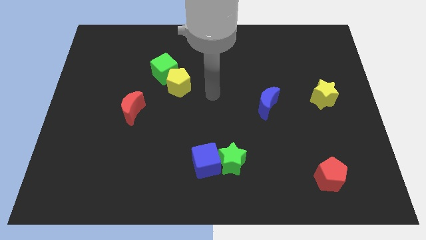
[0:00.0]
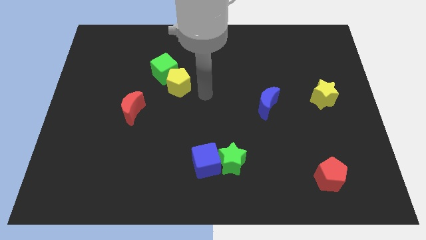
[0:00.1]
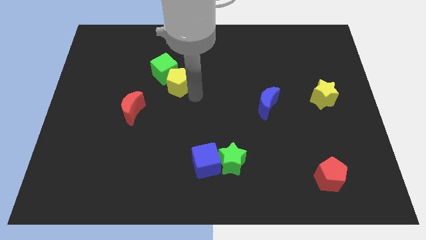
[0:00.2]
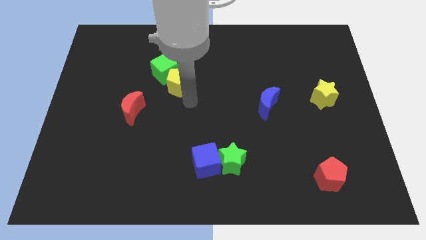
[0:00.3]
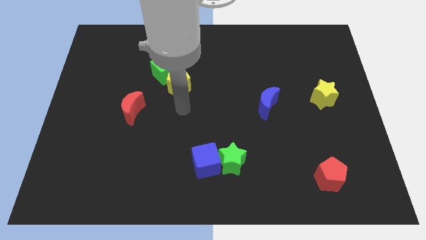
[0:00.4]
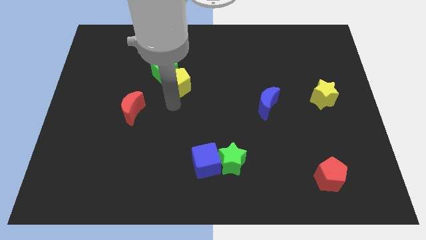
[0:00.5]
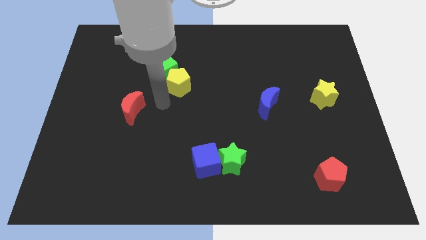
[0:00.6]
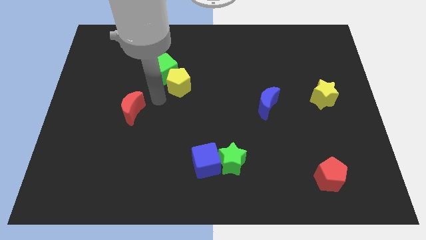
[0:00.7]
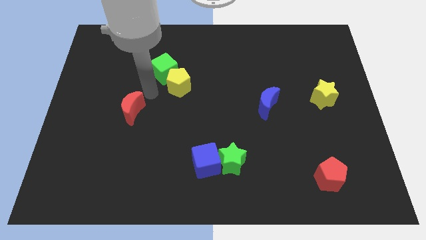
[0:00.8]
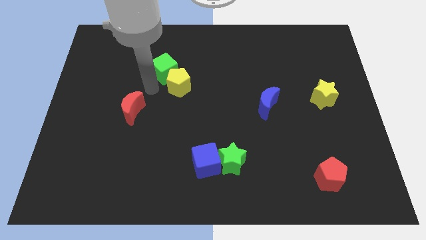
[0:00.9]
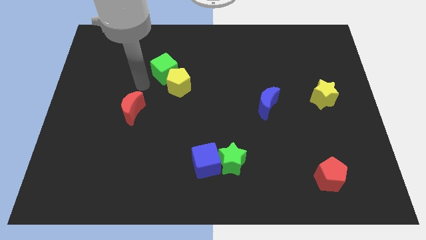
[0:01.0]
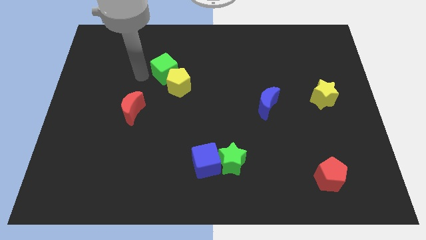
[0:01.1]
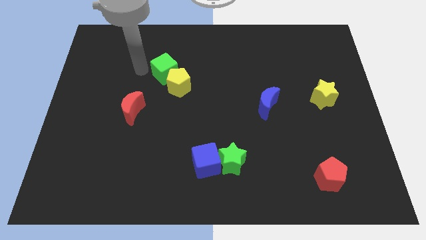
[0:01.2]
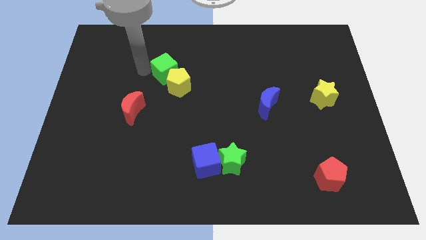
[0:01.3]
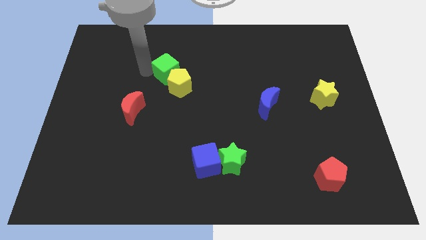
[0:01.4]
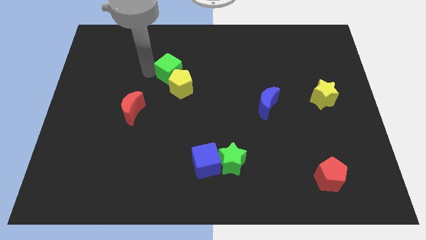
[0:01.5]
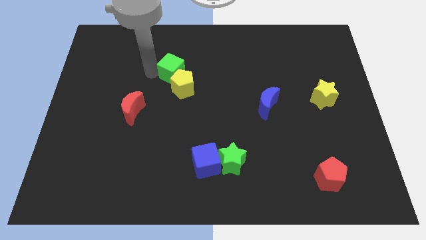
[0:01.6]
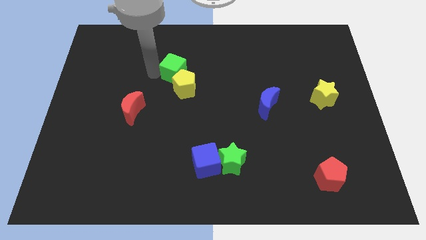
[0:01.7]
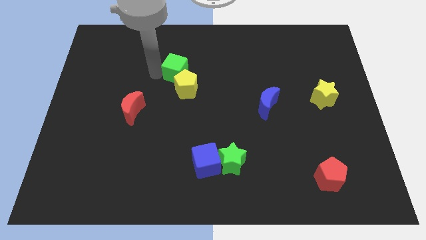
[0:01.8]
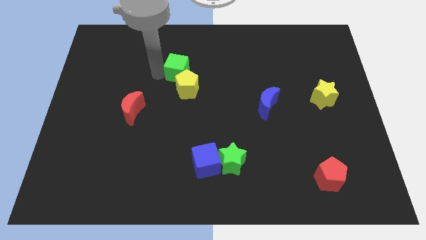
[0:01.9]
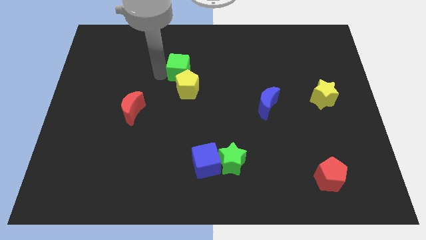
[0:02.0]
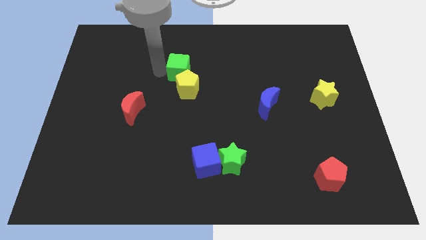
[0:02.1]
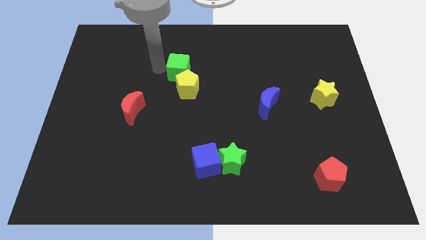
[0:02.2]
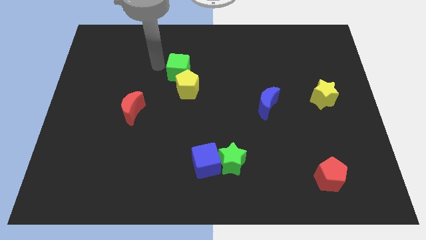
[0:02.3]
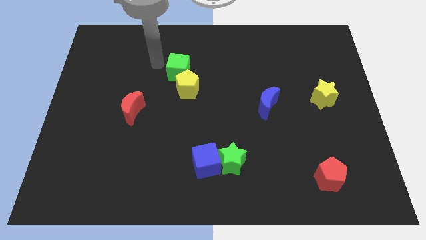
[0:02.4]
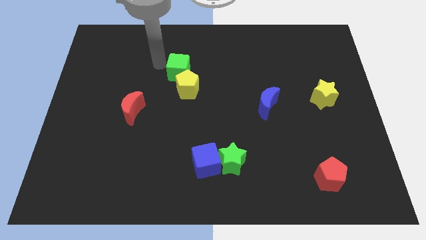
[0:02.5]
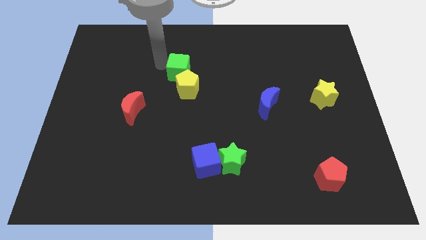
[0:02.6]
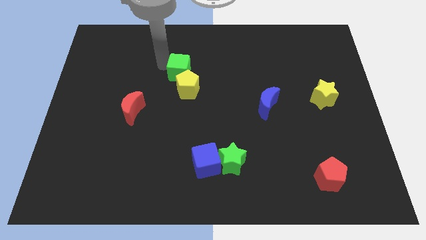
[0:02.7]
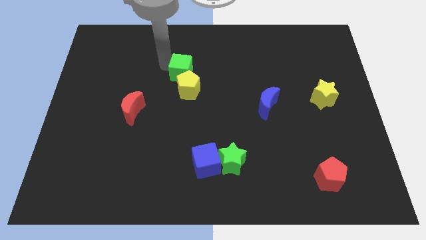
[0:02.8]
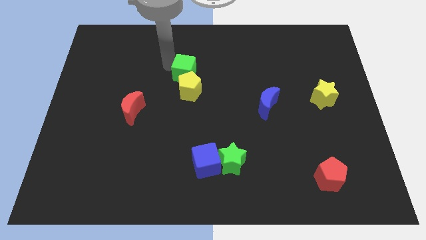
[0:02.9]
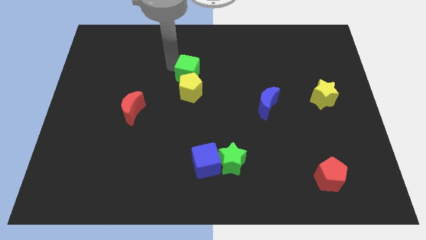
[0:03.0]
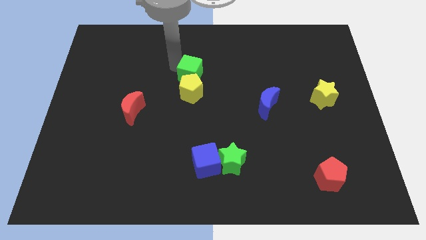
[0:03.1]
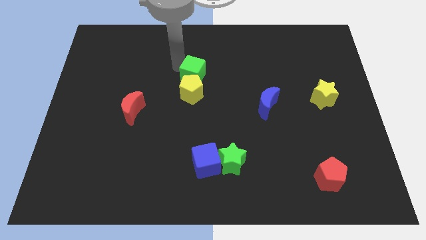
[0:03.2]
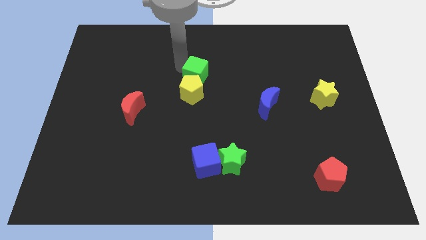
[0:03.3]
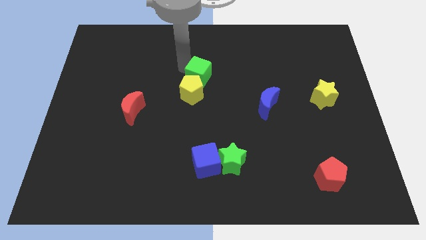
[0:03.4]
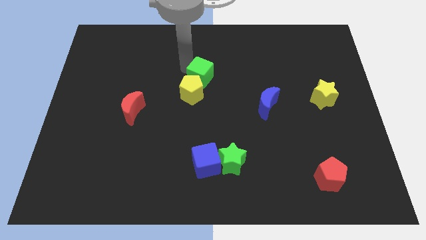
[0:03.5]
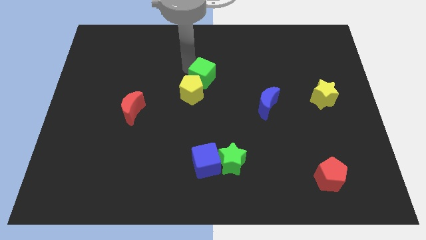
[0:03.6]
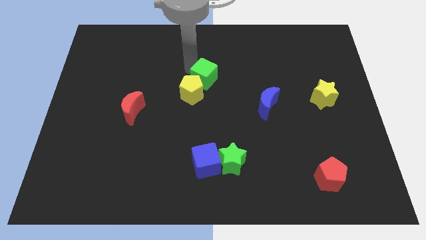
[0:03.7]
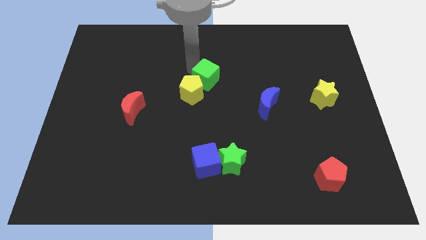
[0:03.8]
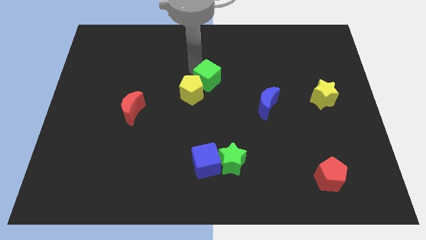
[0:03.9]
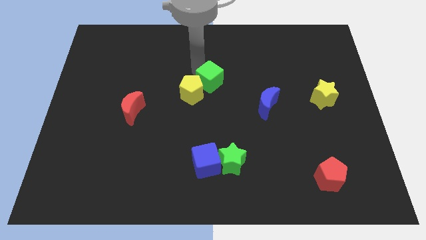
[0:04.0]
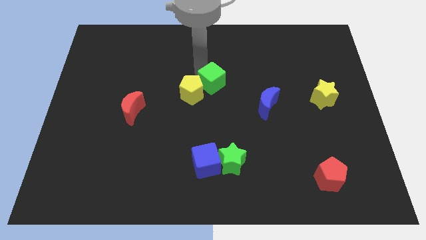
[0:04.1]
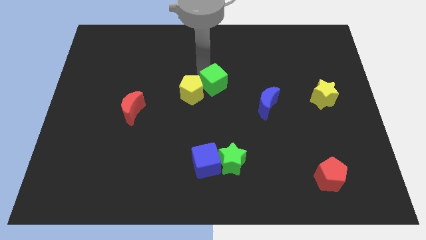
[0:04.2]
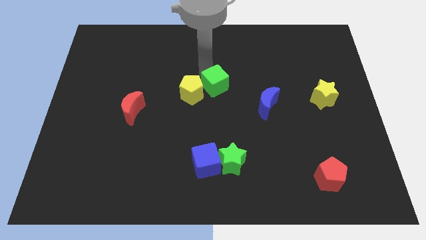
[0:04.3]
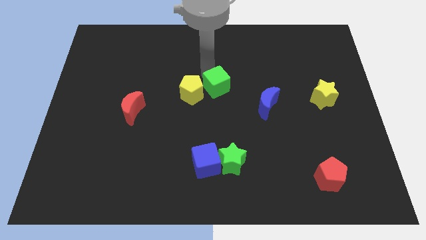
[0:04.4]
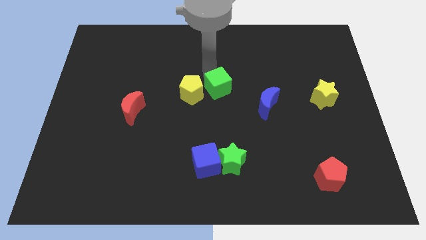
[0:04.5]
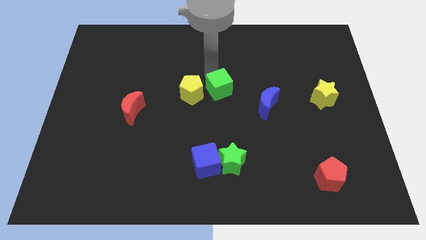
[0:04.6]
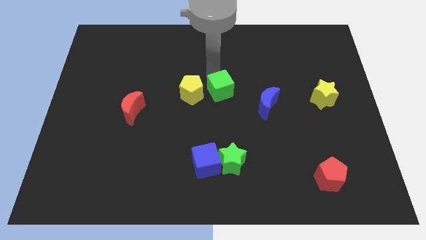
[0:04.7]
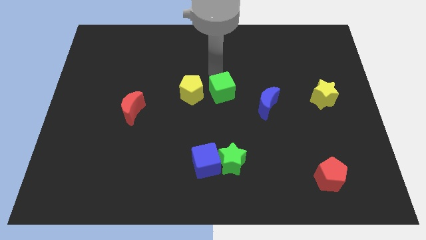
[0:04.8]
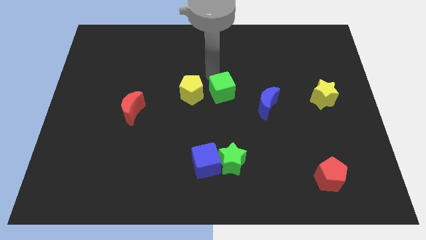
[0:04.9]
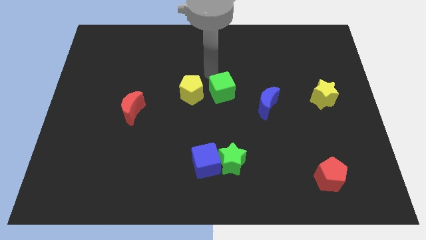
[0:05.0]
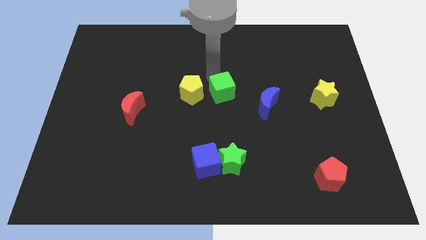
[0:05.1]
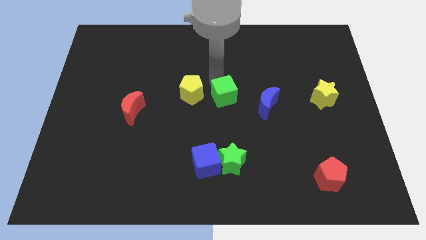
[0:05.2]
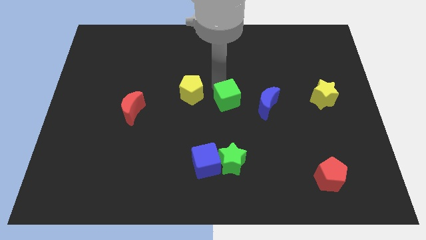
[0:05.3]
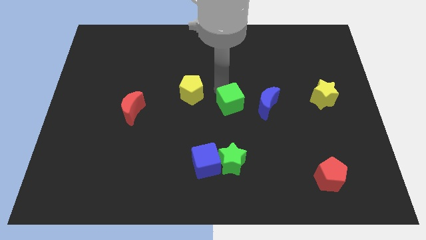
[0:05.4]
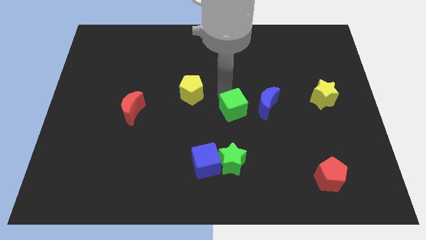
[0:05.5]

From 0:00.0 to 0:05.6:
push the green cube diagonally down and to the left of the blue moon

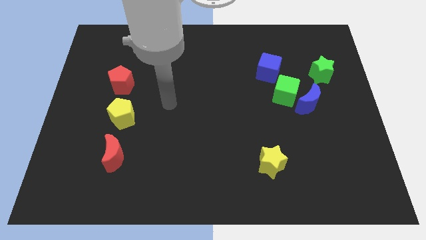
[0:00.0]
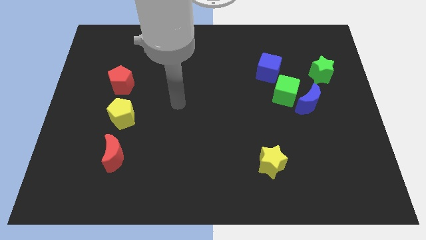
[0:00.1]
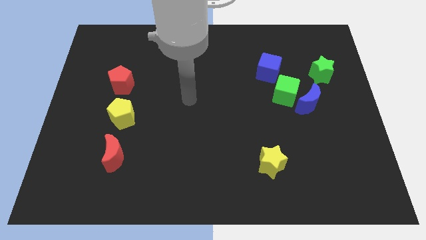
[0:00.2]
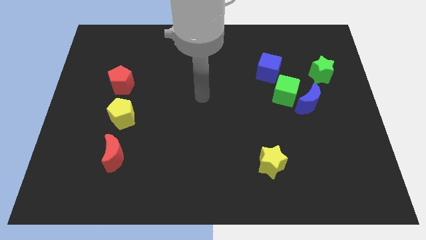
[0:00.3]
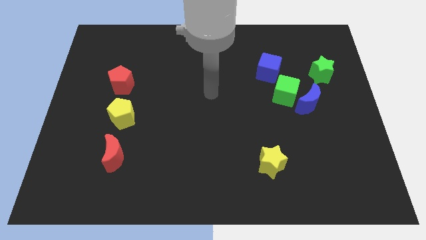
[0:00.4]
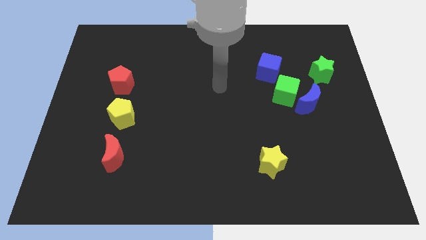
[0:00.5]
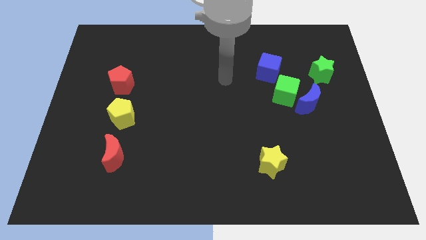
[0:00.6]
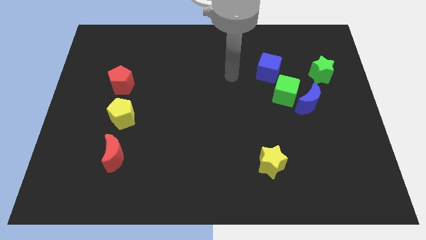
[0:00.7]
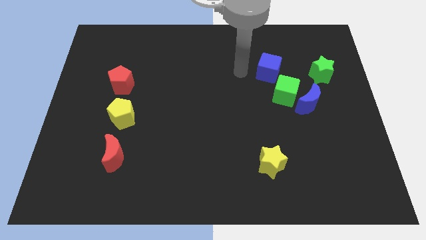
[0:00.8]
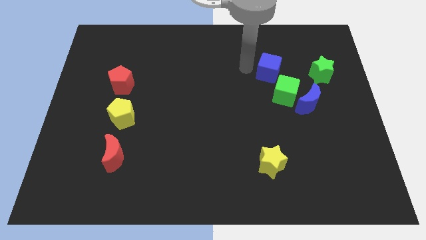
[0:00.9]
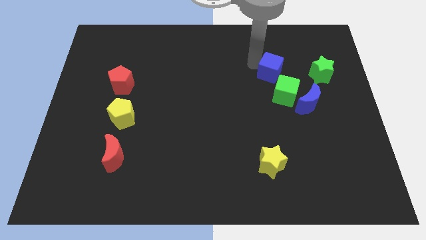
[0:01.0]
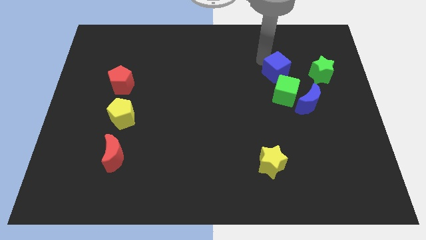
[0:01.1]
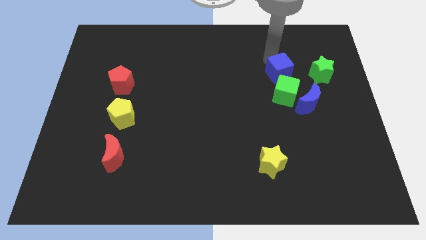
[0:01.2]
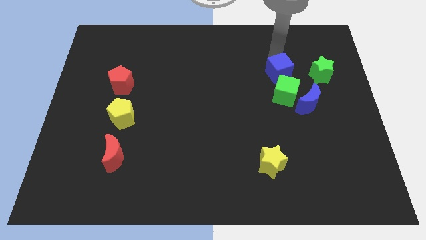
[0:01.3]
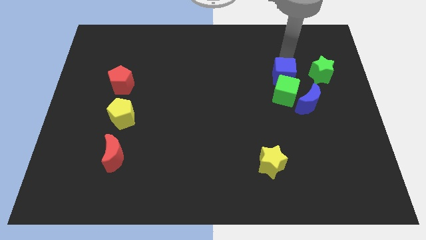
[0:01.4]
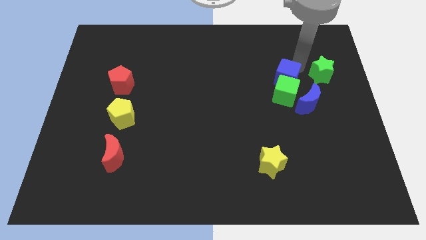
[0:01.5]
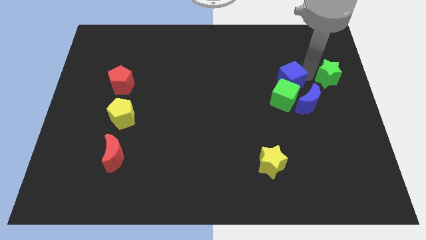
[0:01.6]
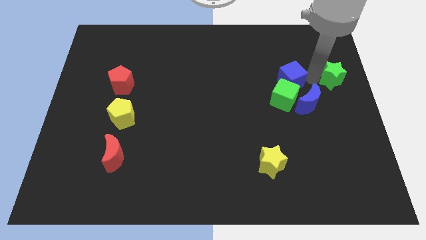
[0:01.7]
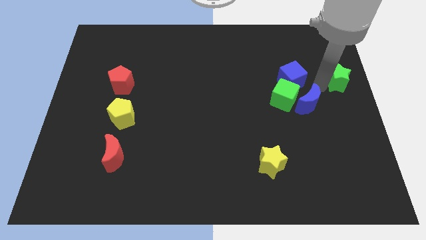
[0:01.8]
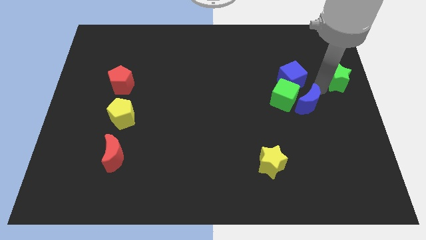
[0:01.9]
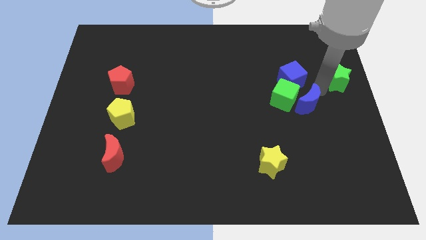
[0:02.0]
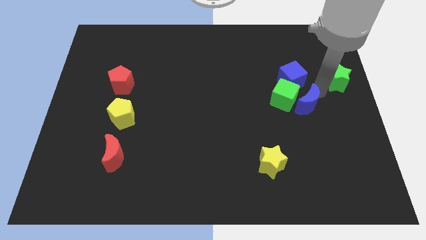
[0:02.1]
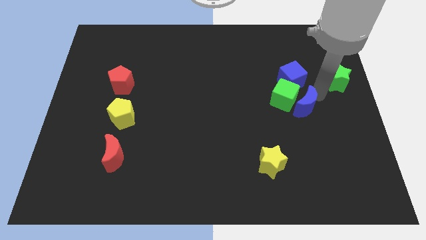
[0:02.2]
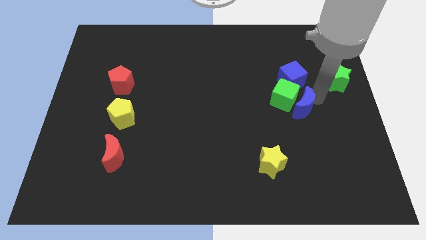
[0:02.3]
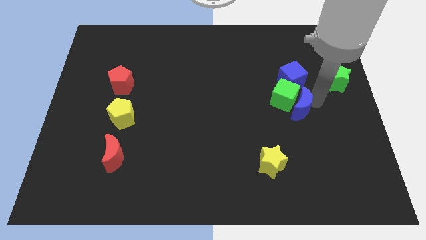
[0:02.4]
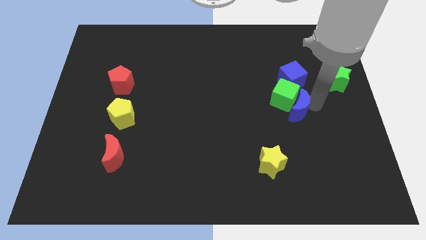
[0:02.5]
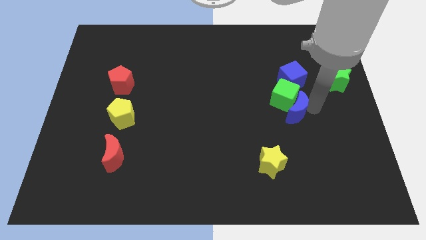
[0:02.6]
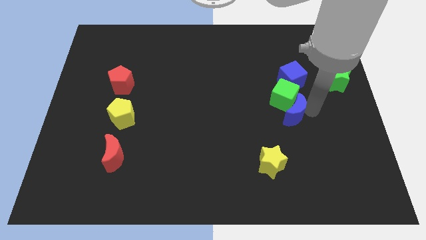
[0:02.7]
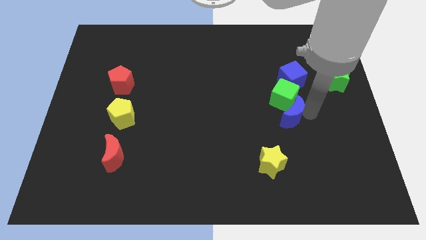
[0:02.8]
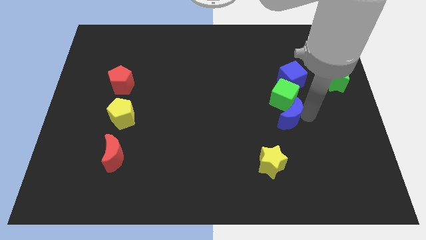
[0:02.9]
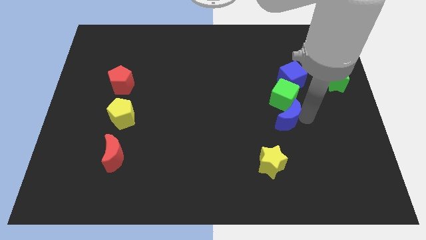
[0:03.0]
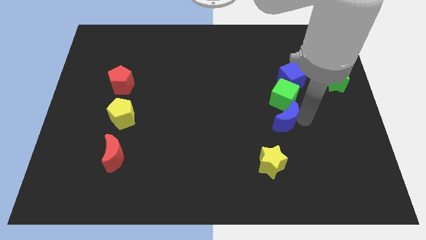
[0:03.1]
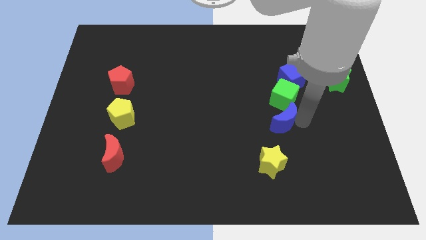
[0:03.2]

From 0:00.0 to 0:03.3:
push the blue moon diagonally up and to the right of the yellow star
